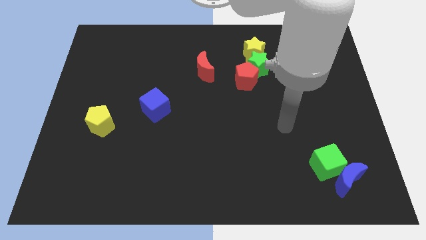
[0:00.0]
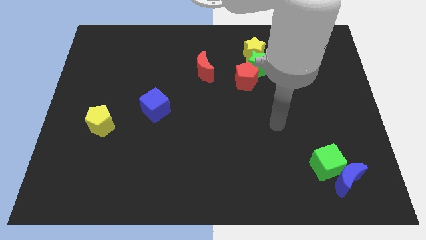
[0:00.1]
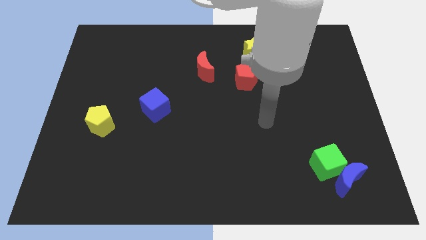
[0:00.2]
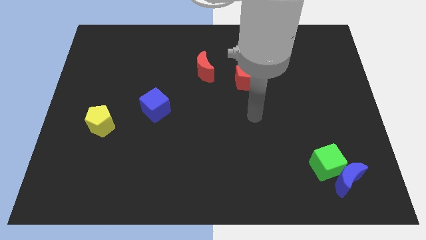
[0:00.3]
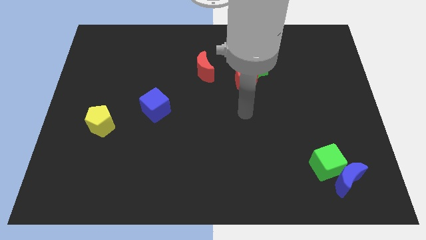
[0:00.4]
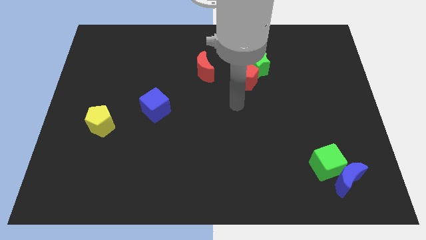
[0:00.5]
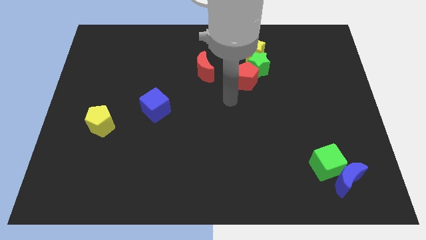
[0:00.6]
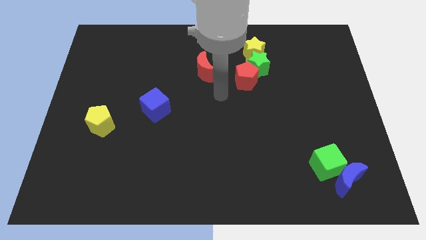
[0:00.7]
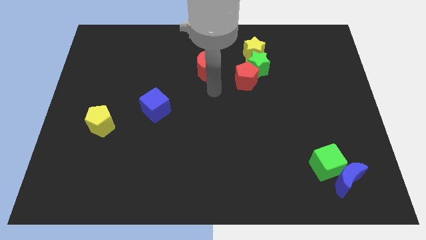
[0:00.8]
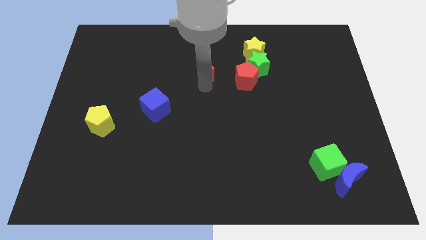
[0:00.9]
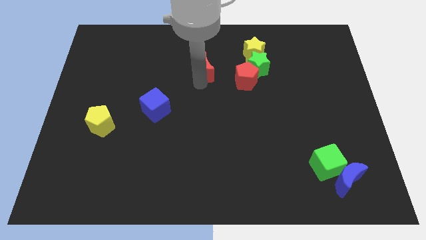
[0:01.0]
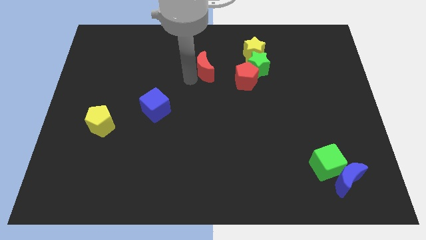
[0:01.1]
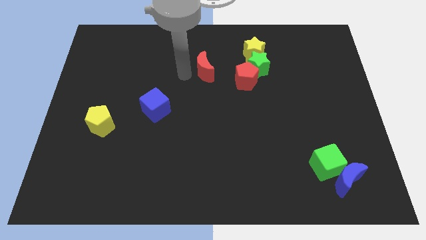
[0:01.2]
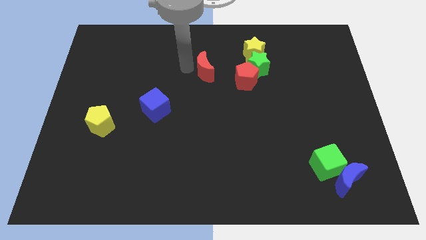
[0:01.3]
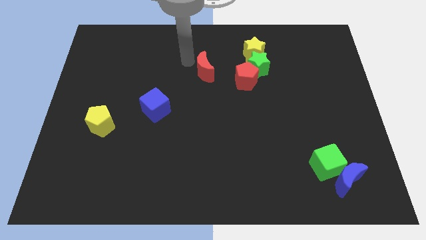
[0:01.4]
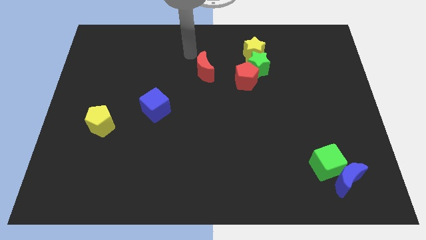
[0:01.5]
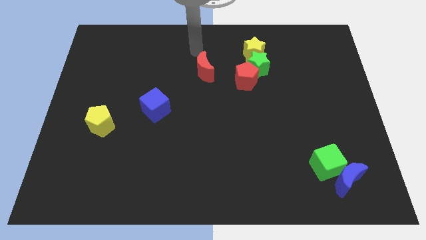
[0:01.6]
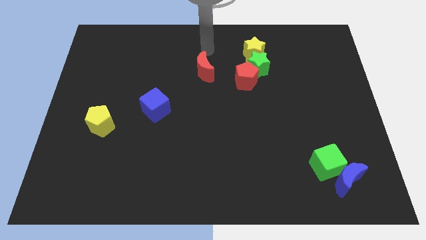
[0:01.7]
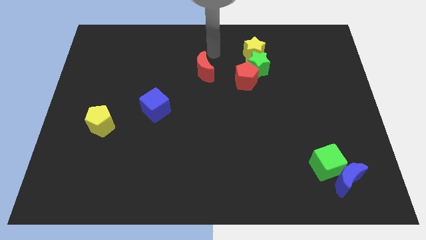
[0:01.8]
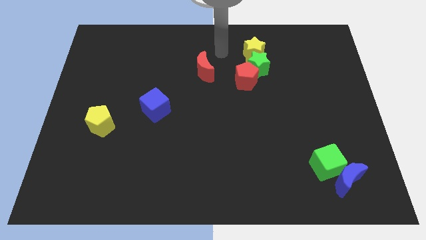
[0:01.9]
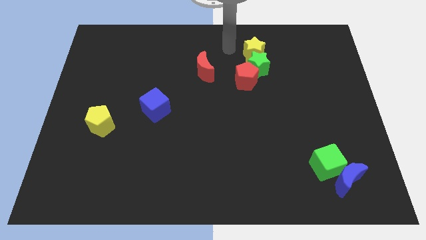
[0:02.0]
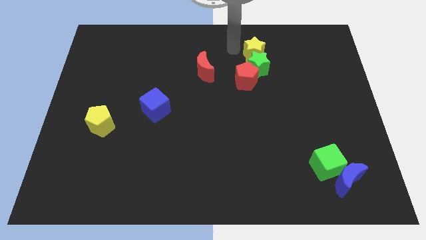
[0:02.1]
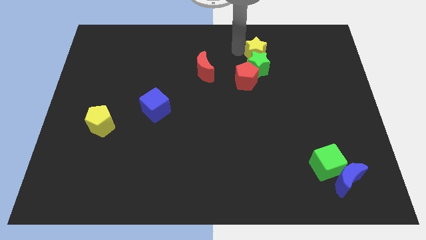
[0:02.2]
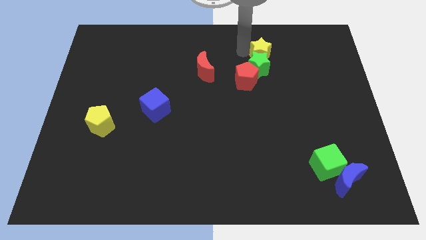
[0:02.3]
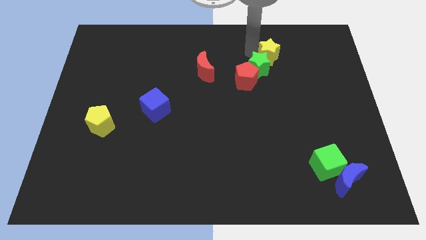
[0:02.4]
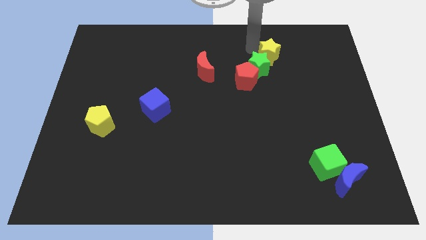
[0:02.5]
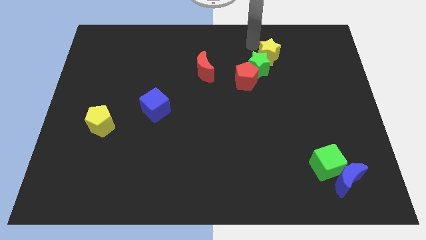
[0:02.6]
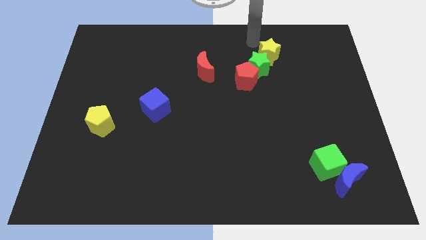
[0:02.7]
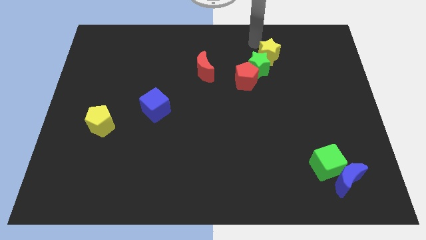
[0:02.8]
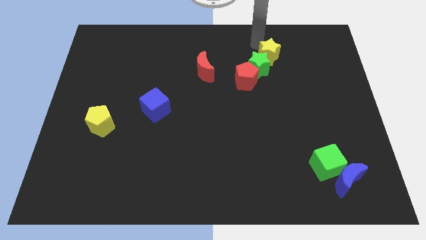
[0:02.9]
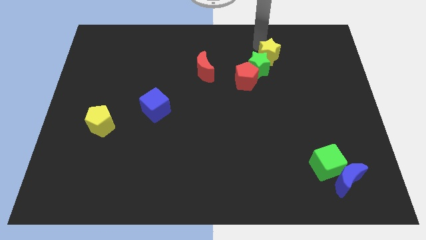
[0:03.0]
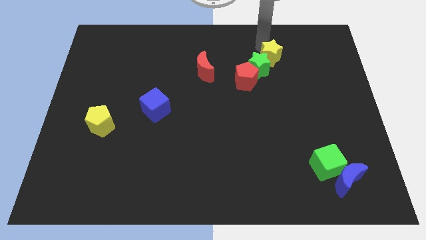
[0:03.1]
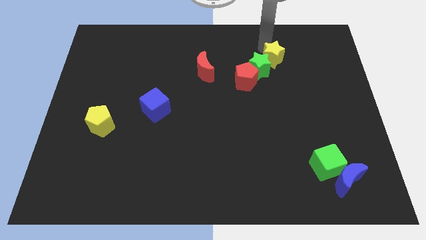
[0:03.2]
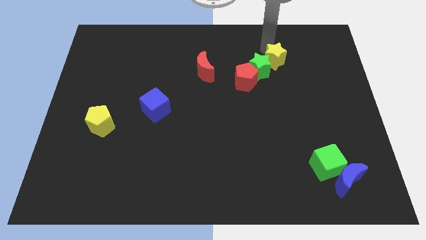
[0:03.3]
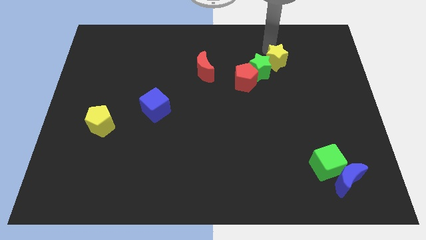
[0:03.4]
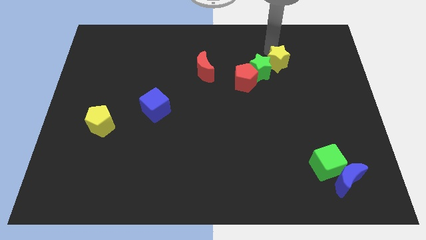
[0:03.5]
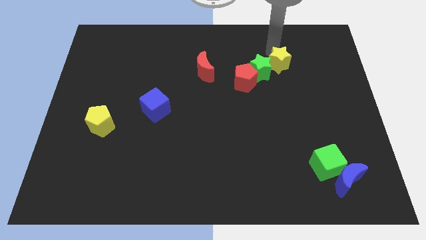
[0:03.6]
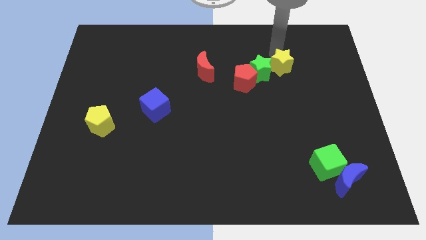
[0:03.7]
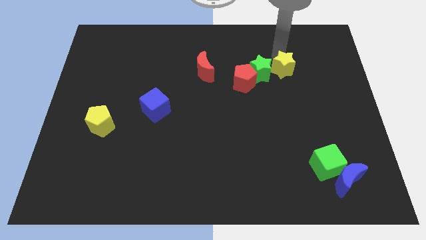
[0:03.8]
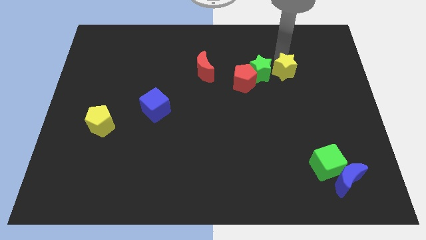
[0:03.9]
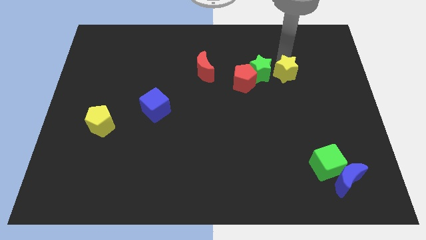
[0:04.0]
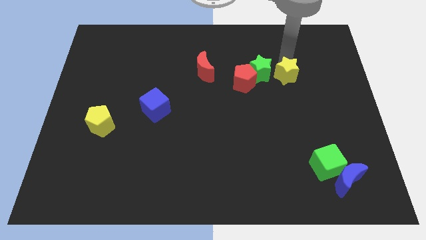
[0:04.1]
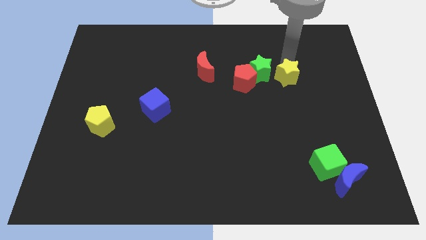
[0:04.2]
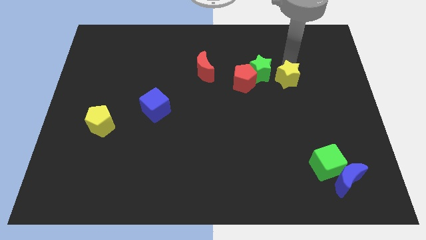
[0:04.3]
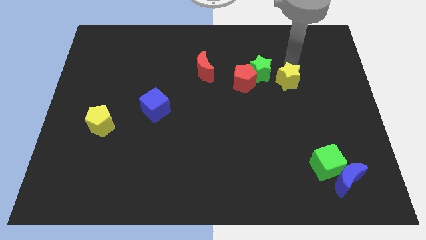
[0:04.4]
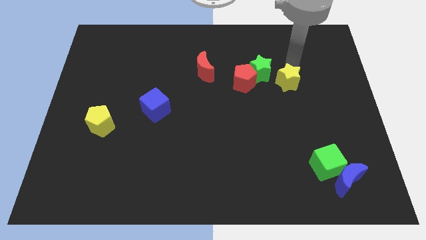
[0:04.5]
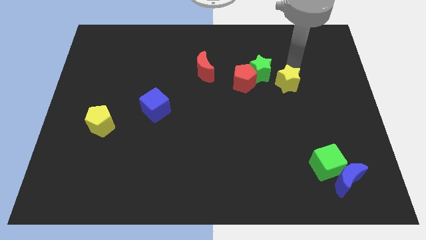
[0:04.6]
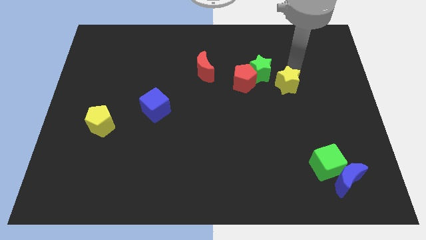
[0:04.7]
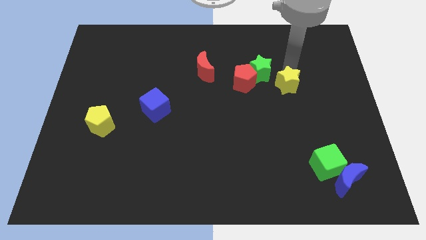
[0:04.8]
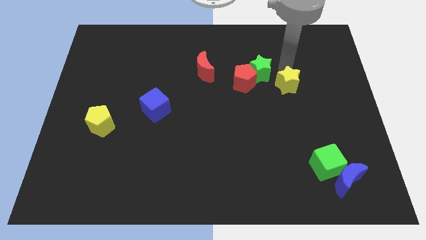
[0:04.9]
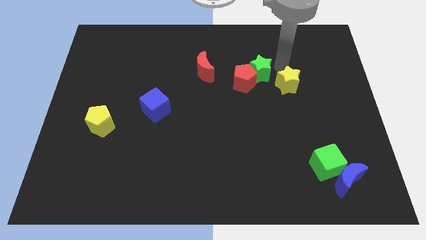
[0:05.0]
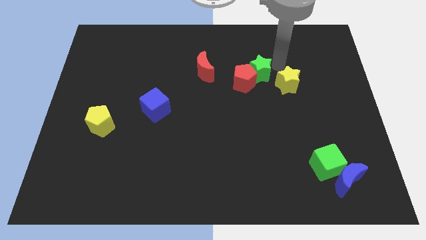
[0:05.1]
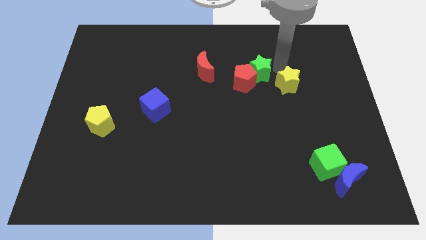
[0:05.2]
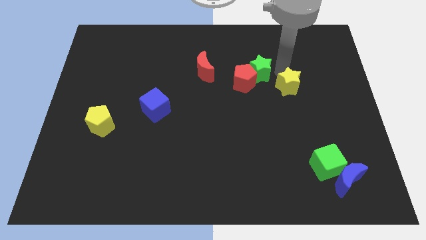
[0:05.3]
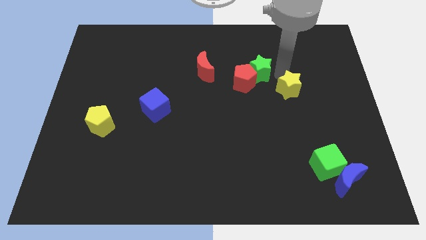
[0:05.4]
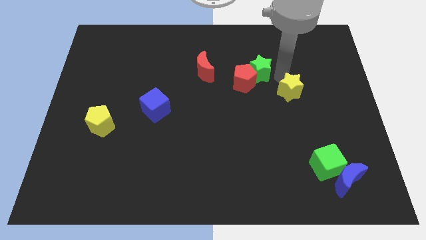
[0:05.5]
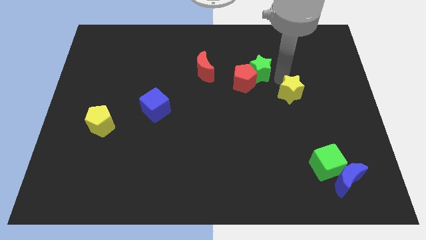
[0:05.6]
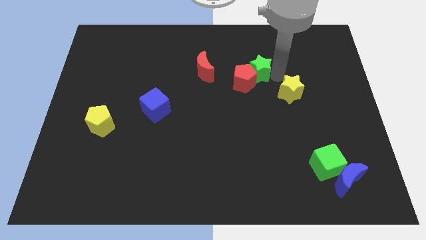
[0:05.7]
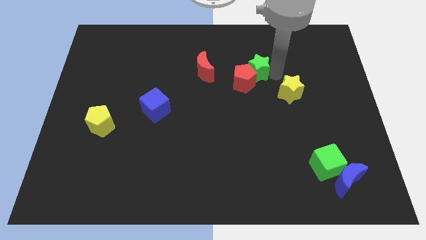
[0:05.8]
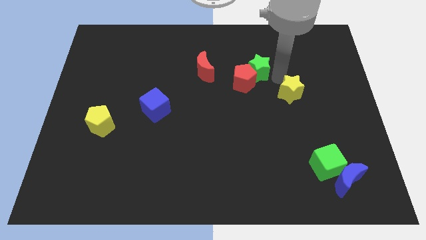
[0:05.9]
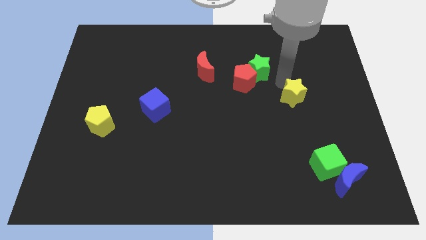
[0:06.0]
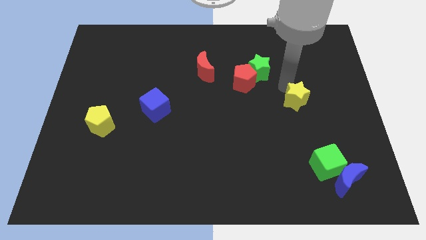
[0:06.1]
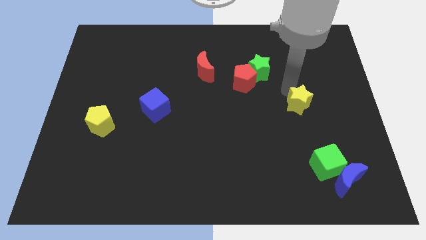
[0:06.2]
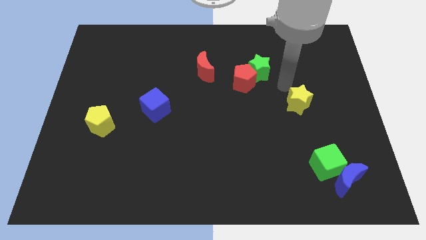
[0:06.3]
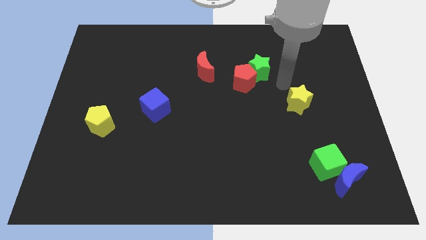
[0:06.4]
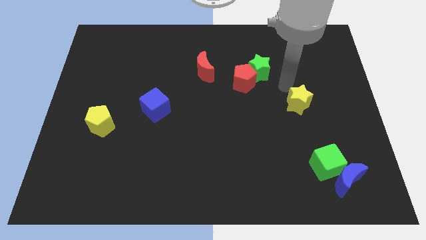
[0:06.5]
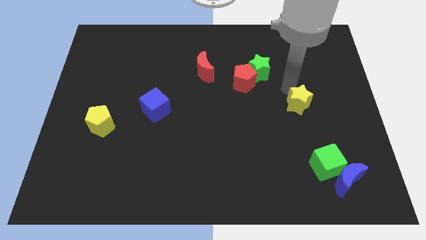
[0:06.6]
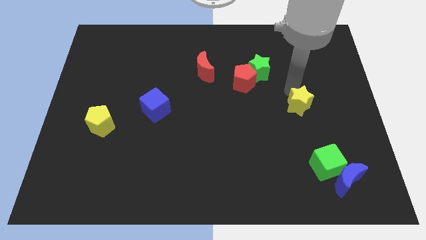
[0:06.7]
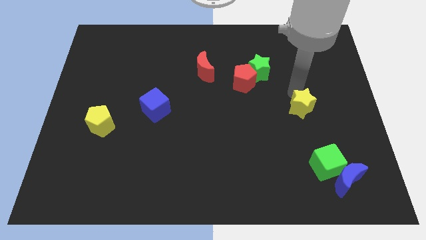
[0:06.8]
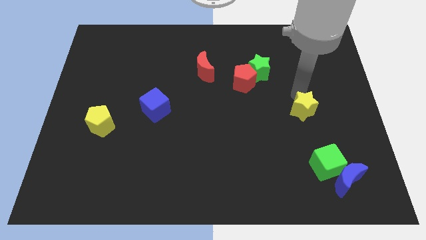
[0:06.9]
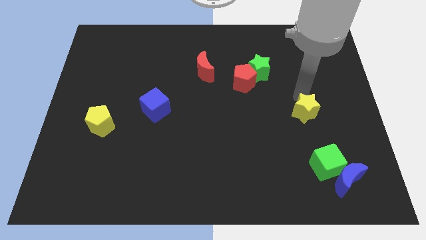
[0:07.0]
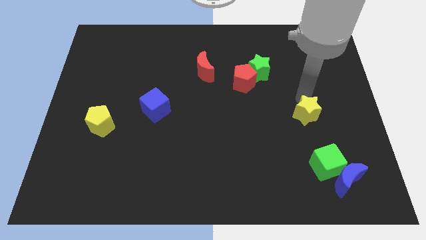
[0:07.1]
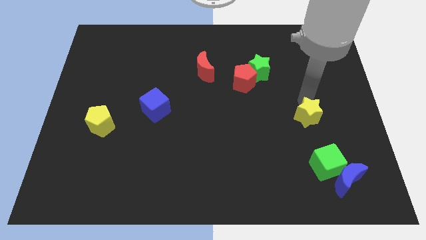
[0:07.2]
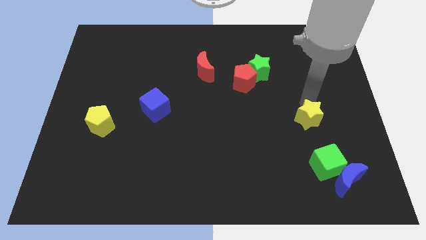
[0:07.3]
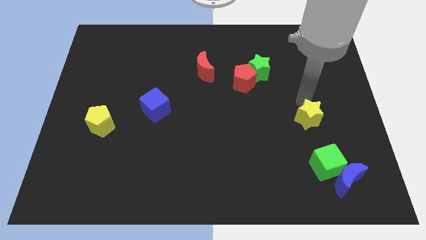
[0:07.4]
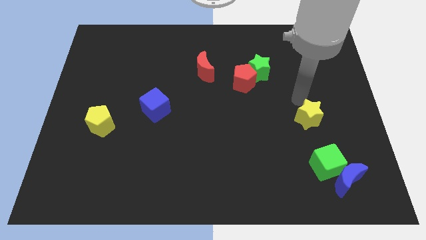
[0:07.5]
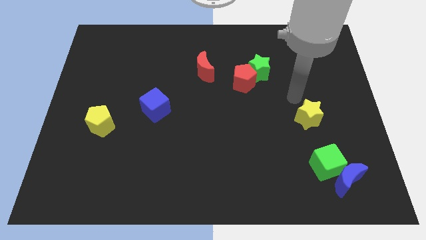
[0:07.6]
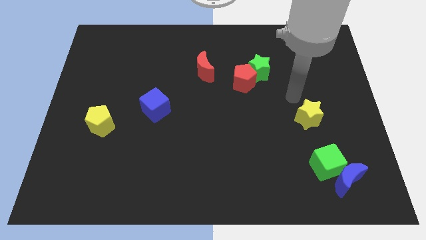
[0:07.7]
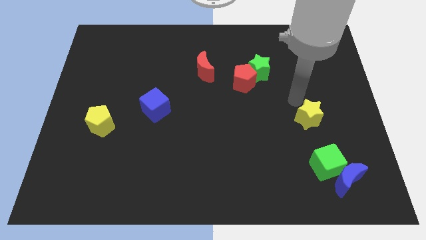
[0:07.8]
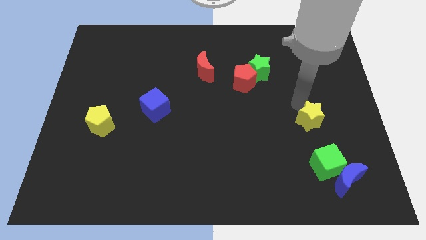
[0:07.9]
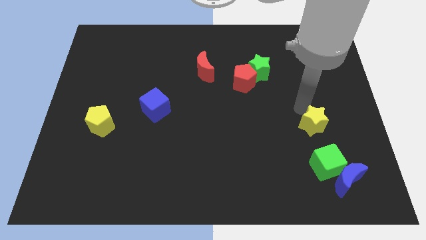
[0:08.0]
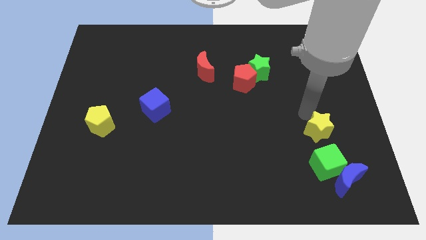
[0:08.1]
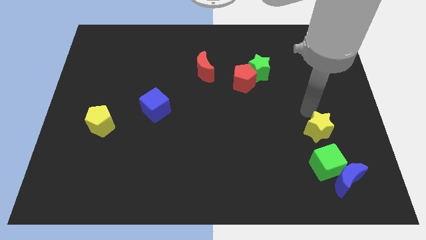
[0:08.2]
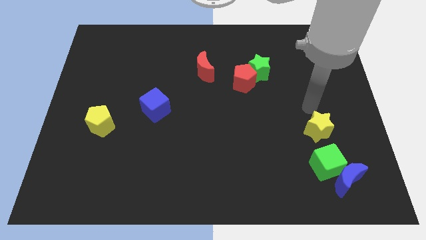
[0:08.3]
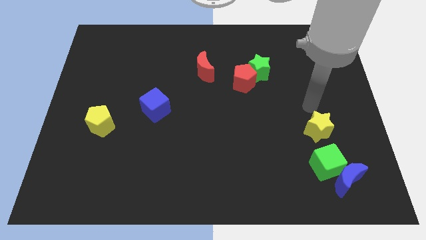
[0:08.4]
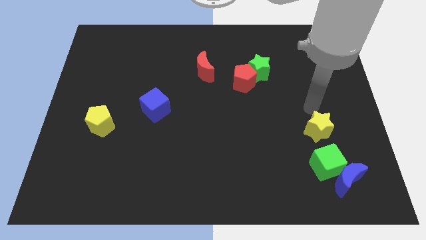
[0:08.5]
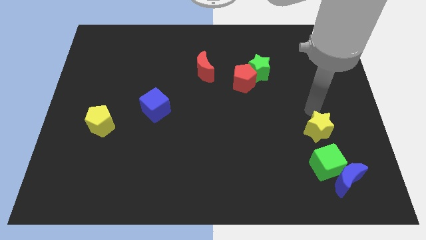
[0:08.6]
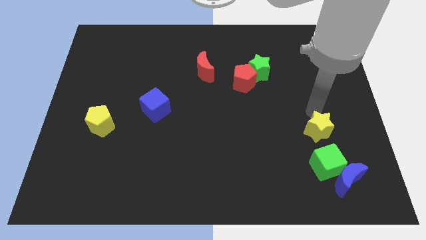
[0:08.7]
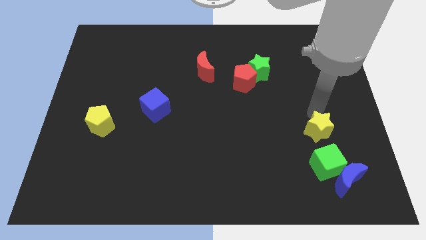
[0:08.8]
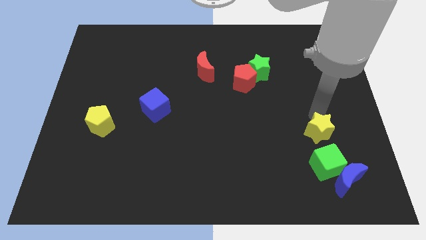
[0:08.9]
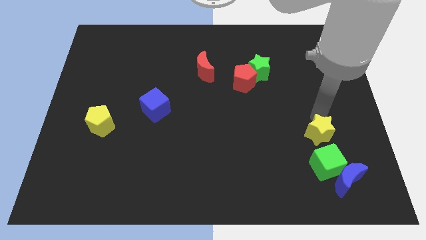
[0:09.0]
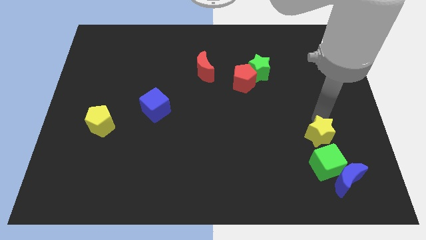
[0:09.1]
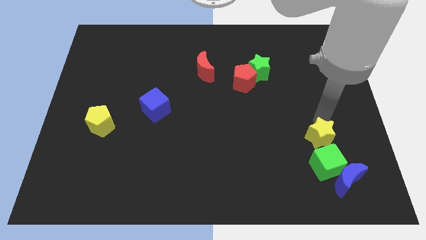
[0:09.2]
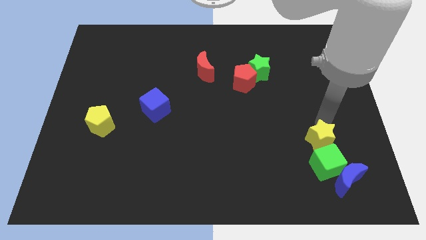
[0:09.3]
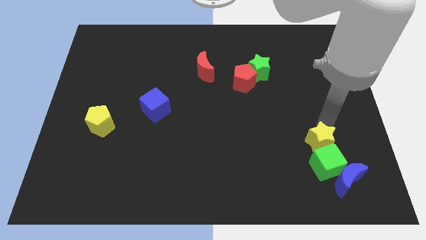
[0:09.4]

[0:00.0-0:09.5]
push the yellow star close to the green cube
